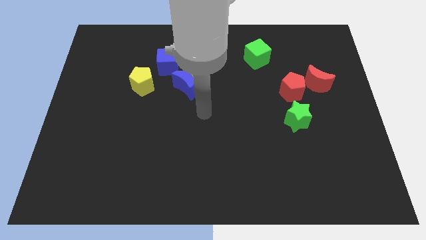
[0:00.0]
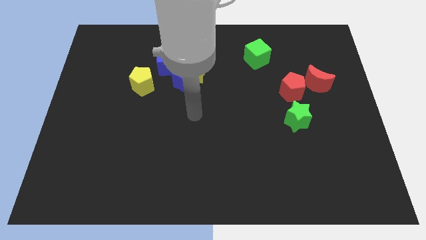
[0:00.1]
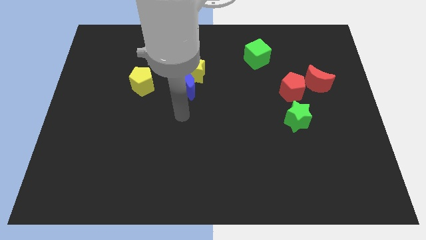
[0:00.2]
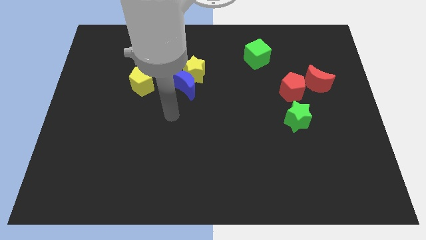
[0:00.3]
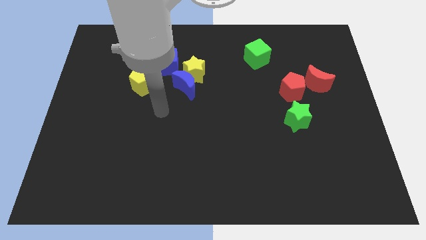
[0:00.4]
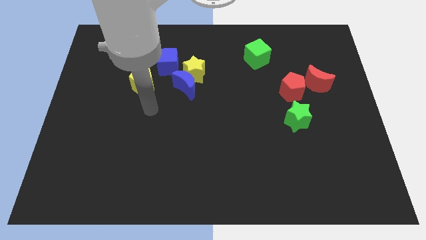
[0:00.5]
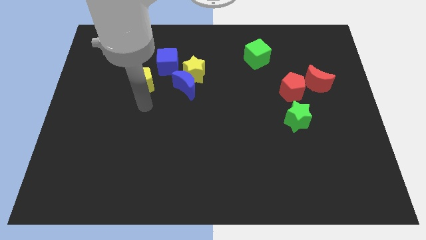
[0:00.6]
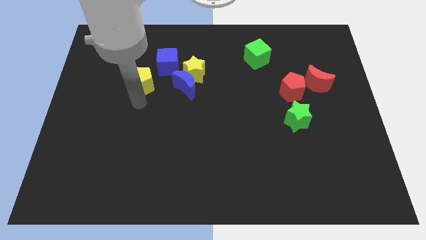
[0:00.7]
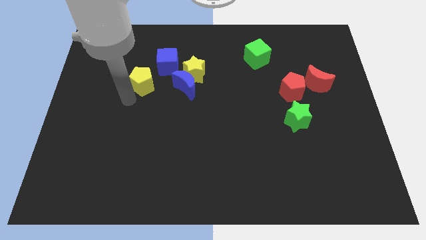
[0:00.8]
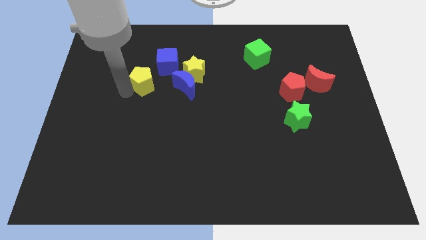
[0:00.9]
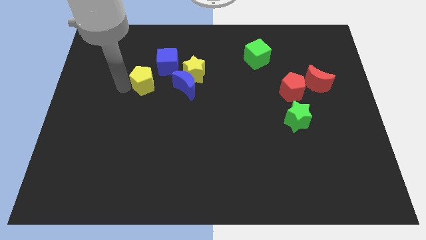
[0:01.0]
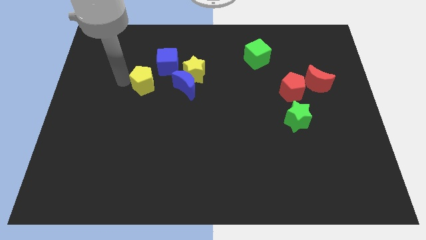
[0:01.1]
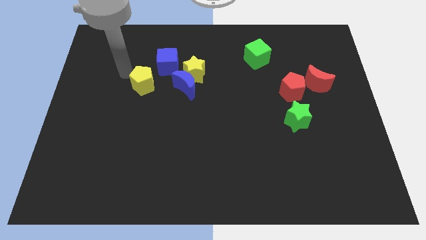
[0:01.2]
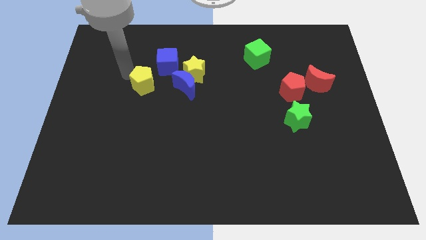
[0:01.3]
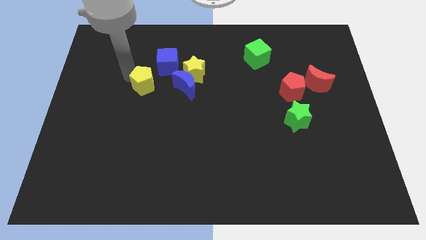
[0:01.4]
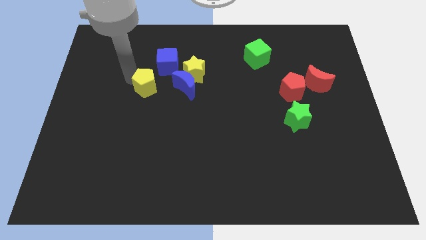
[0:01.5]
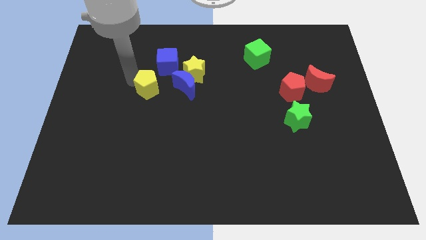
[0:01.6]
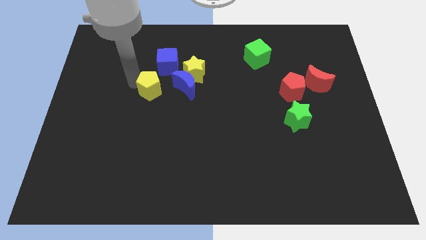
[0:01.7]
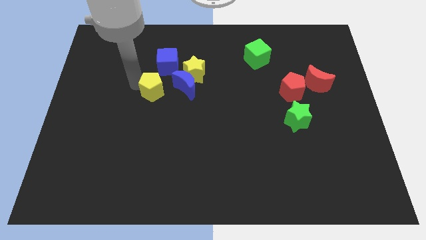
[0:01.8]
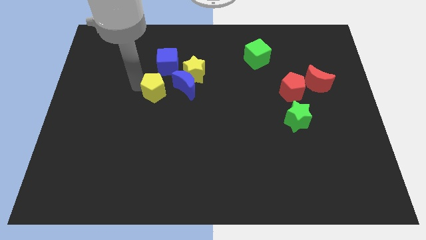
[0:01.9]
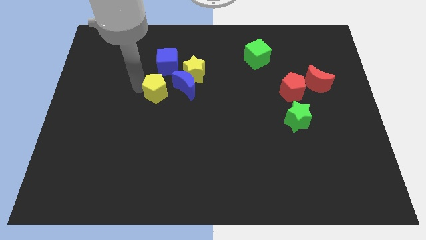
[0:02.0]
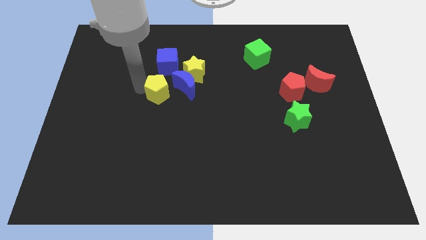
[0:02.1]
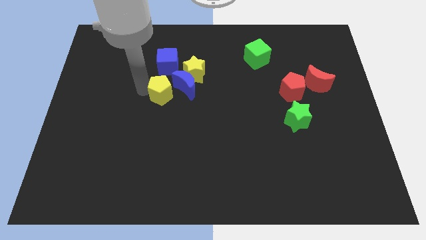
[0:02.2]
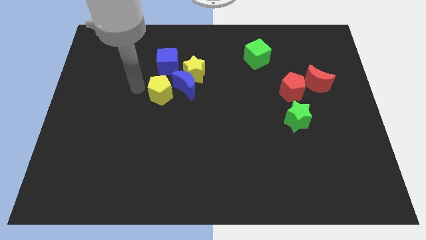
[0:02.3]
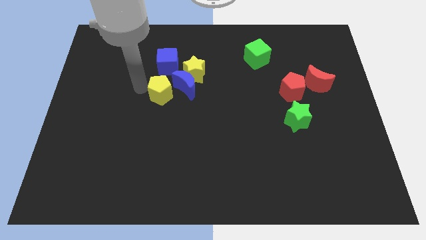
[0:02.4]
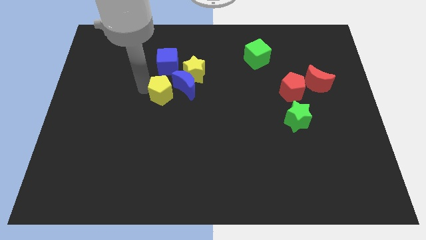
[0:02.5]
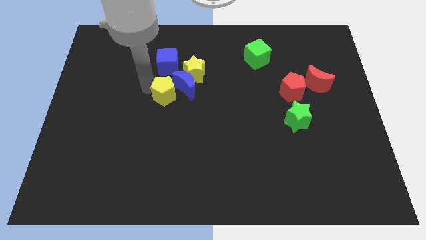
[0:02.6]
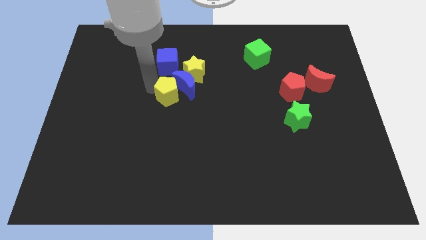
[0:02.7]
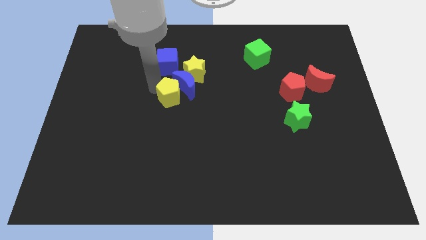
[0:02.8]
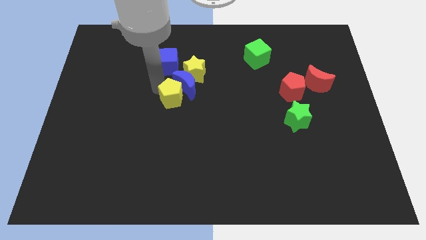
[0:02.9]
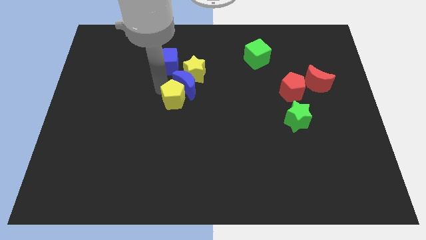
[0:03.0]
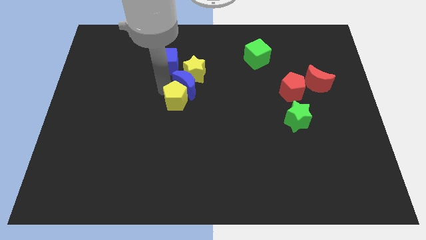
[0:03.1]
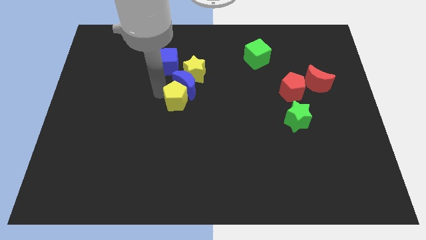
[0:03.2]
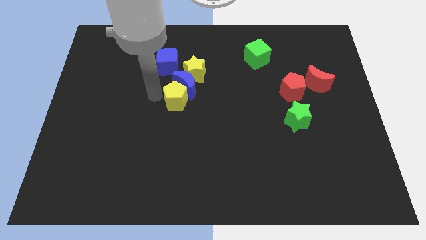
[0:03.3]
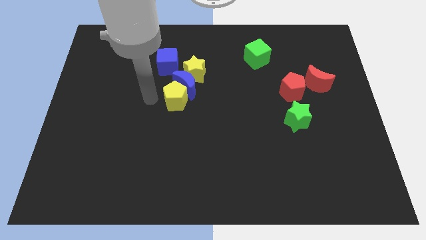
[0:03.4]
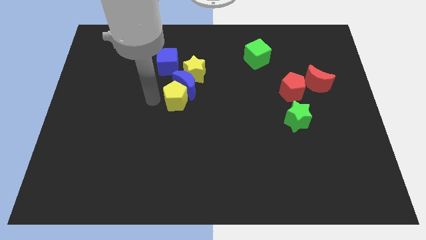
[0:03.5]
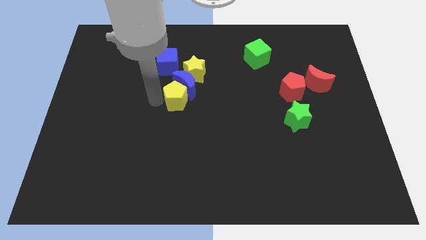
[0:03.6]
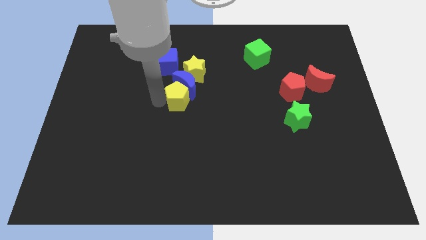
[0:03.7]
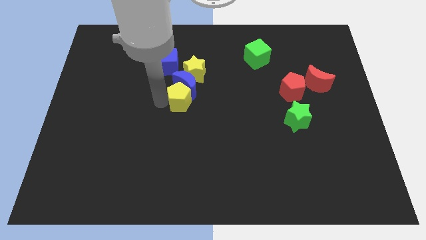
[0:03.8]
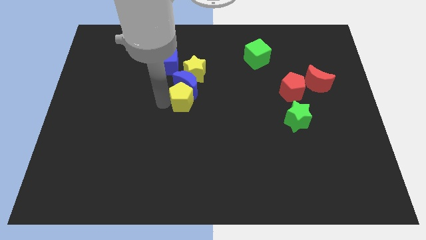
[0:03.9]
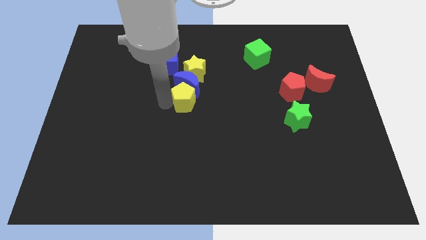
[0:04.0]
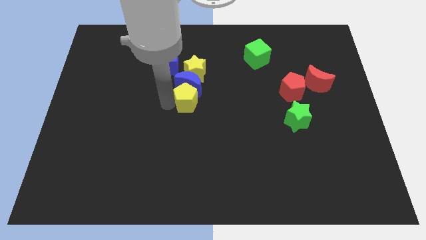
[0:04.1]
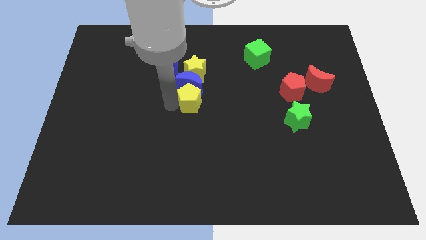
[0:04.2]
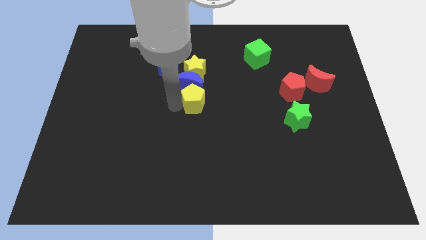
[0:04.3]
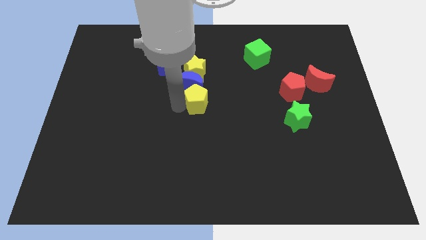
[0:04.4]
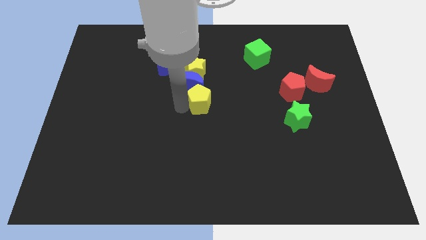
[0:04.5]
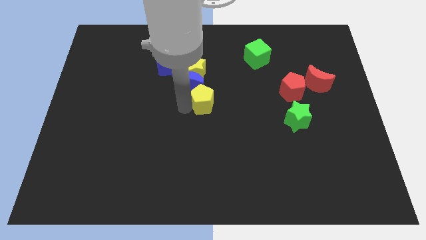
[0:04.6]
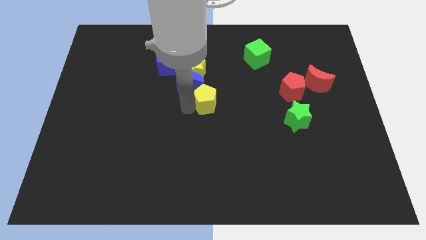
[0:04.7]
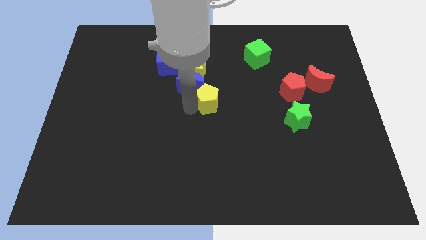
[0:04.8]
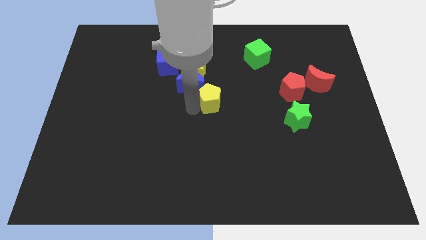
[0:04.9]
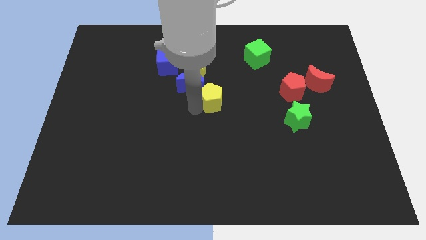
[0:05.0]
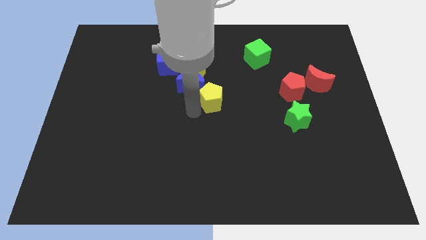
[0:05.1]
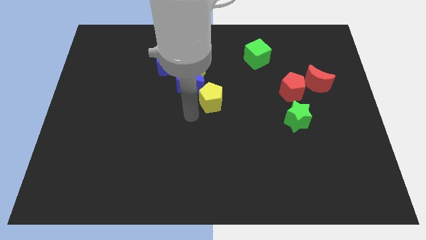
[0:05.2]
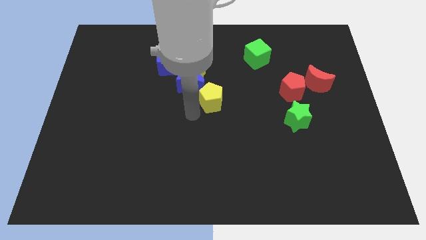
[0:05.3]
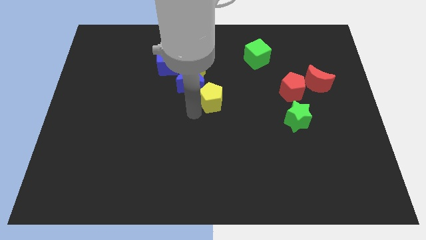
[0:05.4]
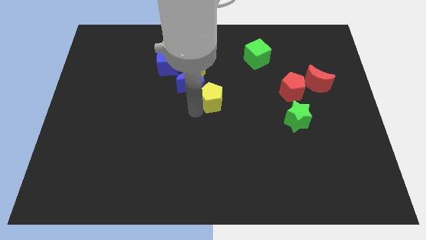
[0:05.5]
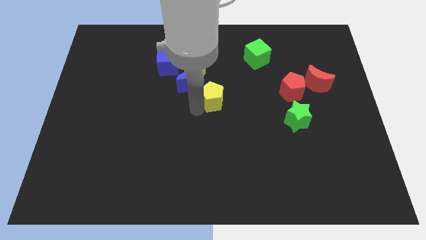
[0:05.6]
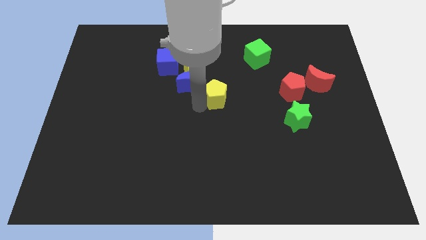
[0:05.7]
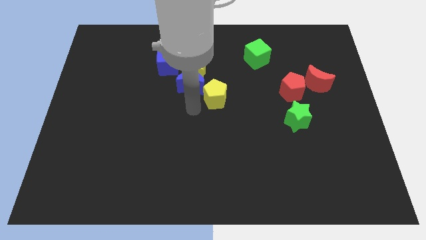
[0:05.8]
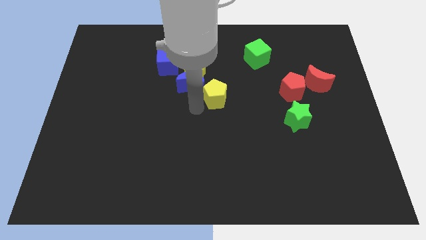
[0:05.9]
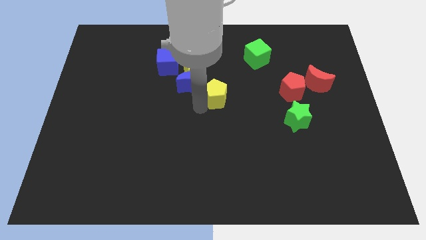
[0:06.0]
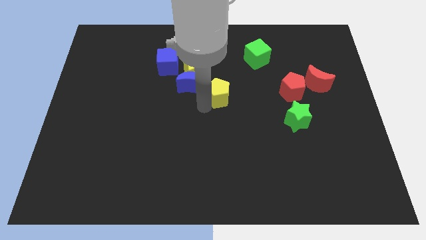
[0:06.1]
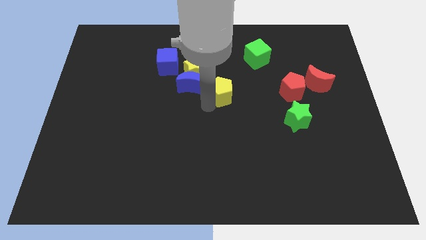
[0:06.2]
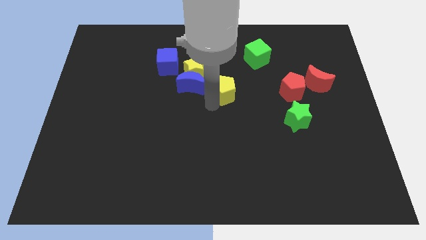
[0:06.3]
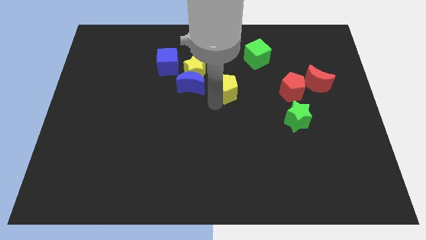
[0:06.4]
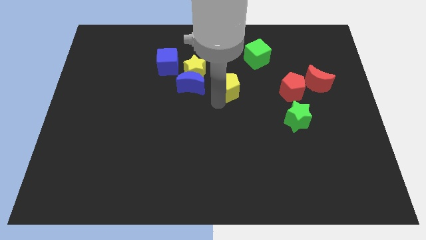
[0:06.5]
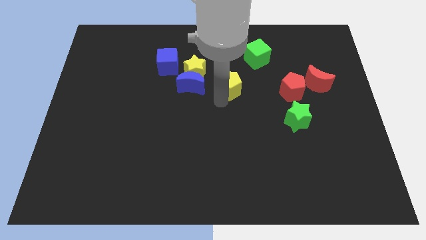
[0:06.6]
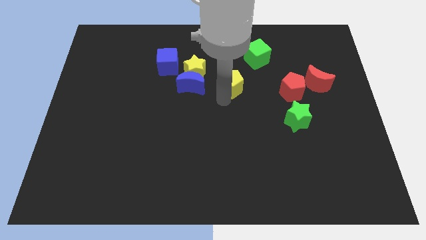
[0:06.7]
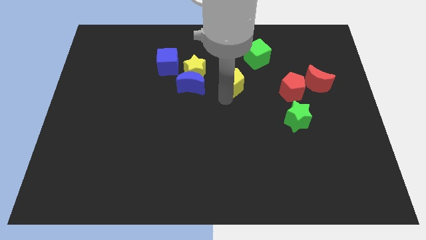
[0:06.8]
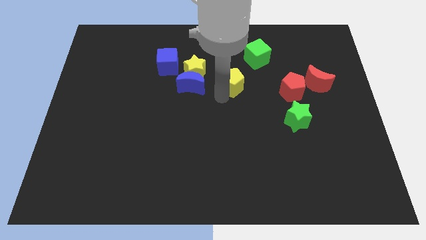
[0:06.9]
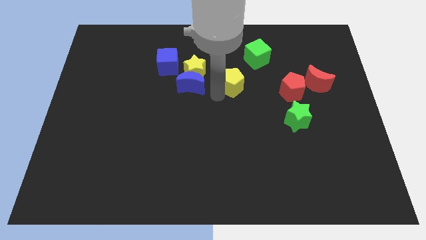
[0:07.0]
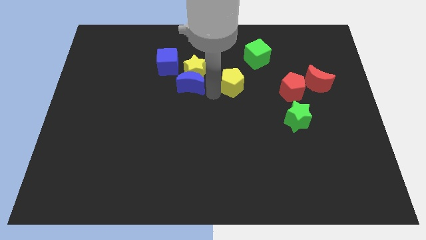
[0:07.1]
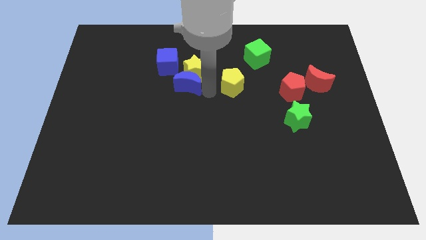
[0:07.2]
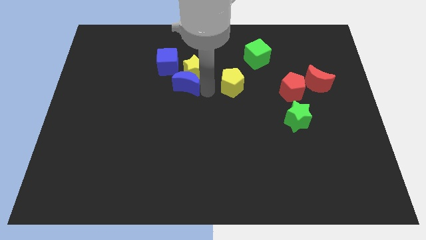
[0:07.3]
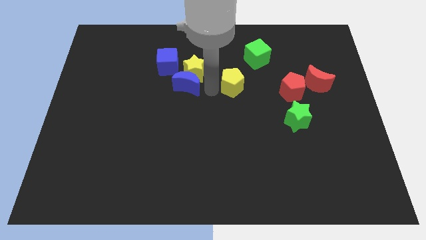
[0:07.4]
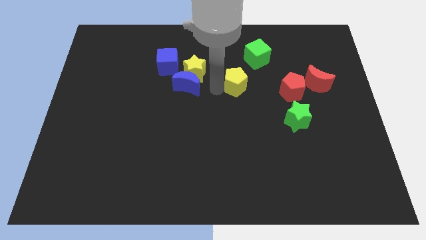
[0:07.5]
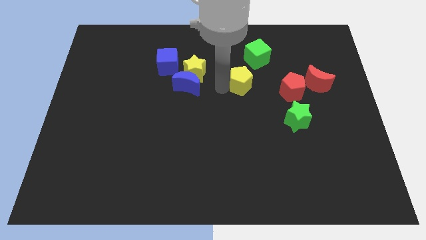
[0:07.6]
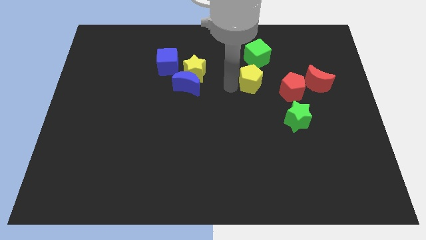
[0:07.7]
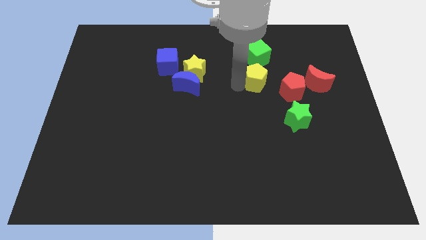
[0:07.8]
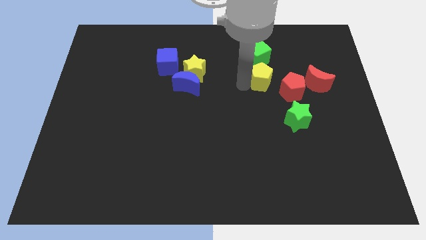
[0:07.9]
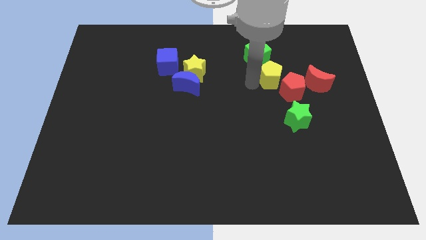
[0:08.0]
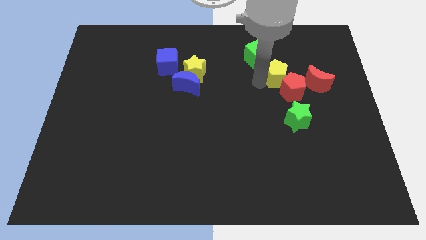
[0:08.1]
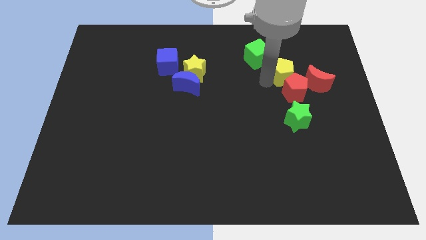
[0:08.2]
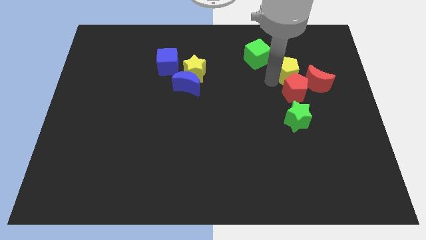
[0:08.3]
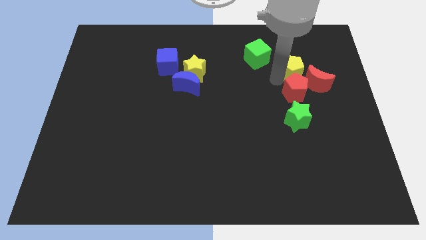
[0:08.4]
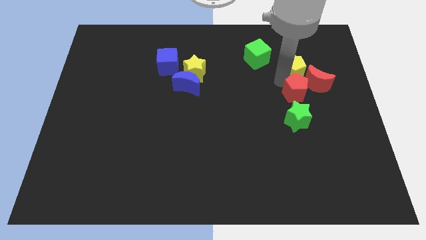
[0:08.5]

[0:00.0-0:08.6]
push the yellow pentagon to the right of the green cube
